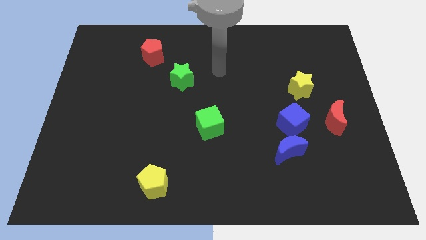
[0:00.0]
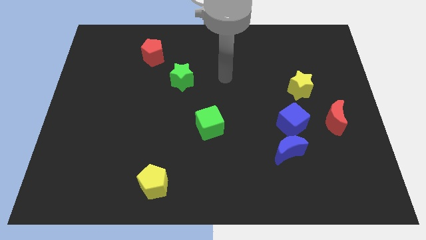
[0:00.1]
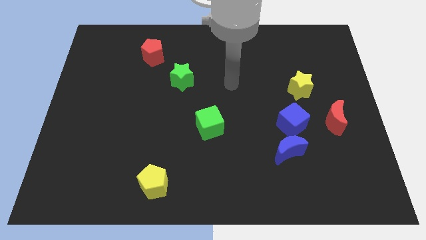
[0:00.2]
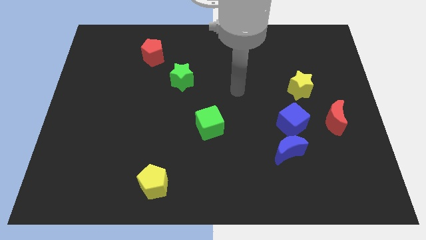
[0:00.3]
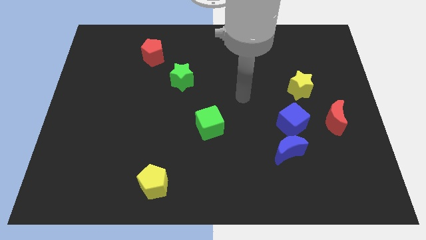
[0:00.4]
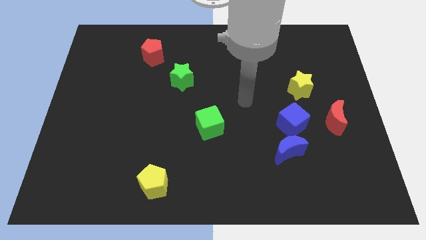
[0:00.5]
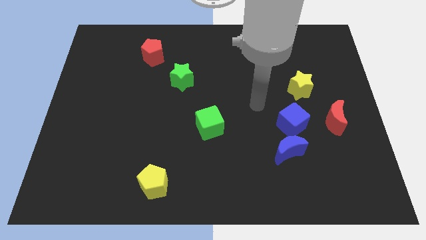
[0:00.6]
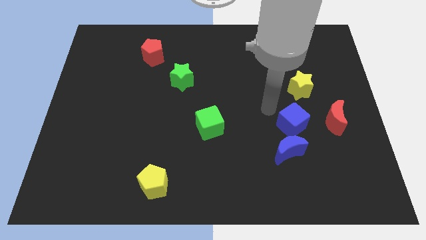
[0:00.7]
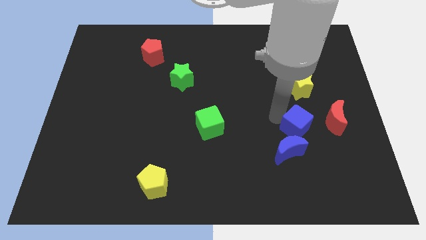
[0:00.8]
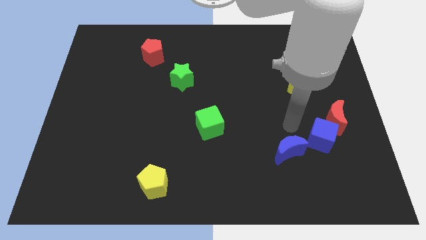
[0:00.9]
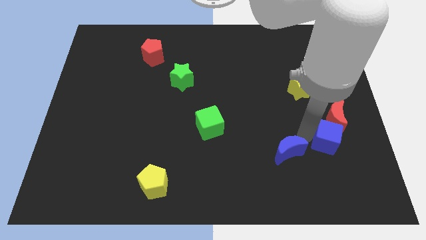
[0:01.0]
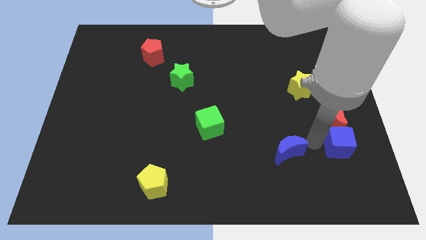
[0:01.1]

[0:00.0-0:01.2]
separate the blue moon from the blue cube

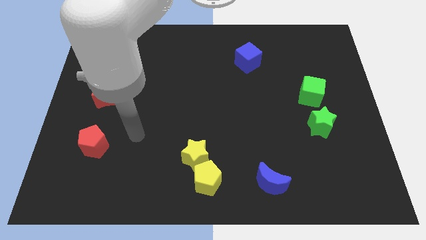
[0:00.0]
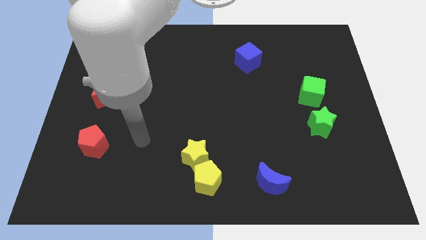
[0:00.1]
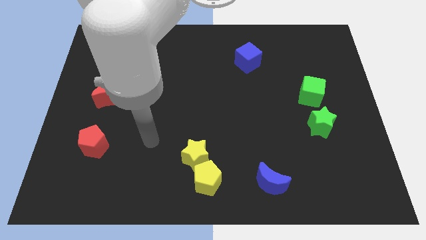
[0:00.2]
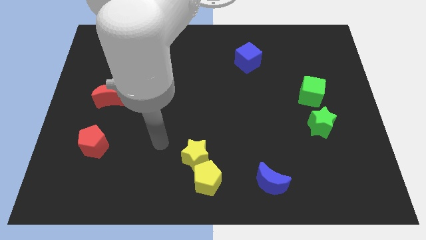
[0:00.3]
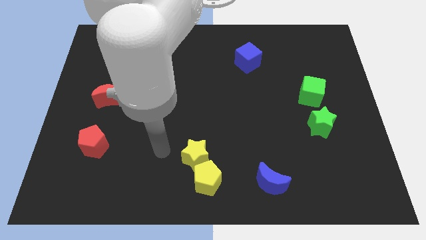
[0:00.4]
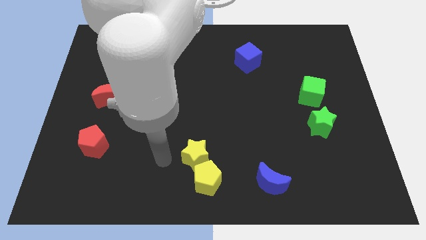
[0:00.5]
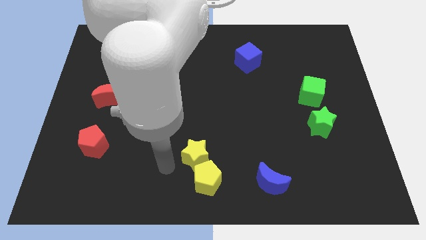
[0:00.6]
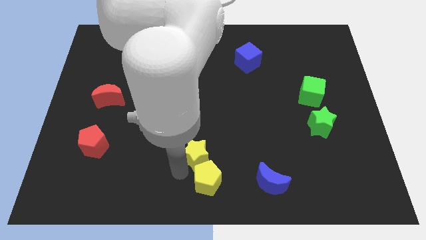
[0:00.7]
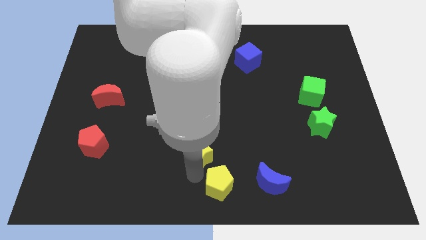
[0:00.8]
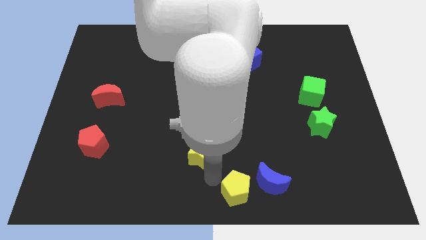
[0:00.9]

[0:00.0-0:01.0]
separate the yellow star from the yellow pentagon

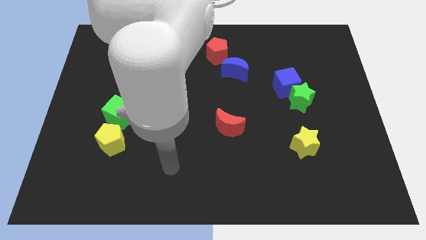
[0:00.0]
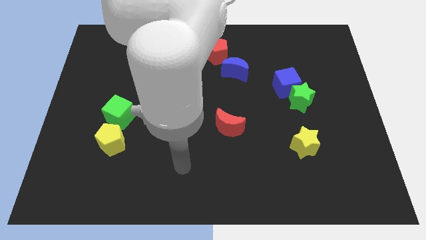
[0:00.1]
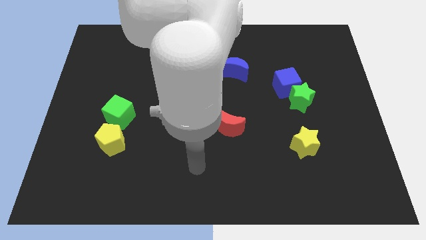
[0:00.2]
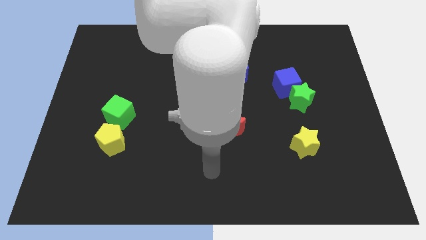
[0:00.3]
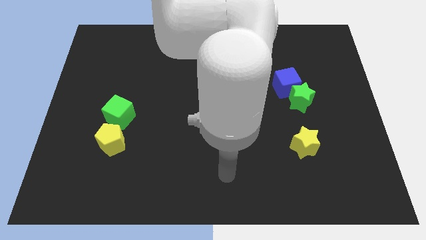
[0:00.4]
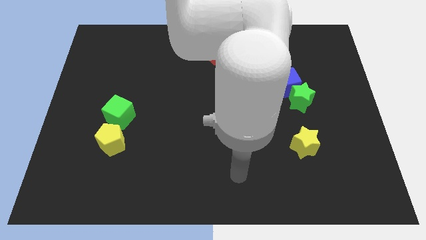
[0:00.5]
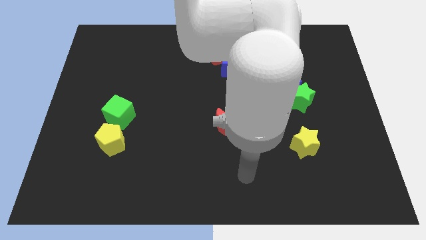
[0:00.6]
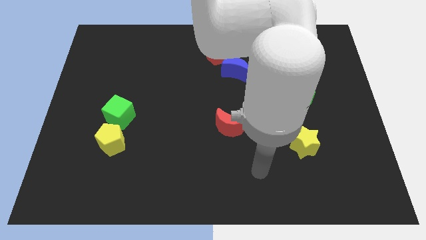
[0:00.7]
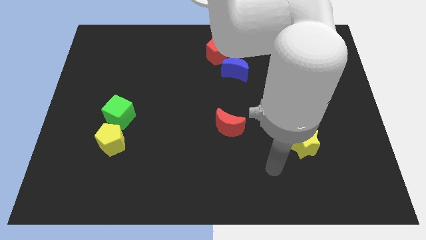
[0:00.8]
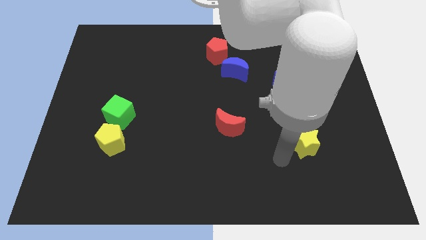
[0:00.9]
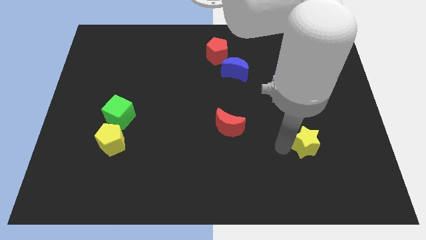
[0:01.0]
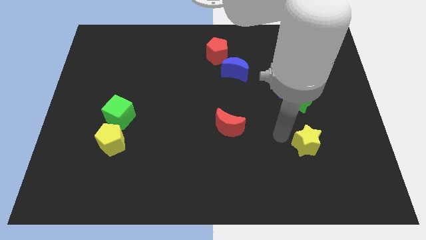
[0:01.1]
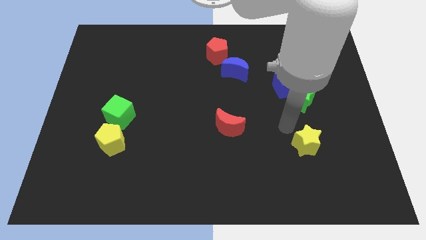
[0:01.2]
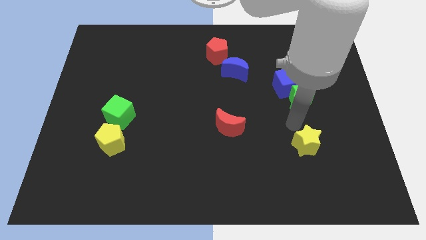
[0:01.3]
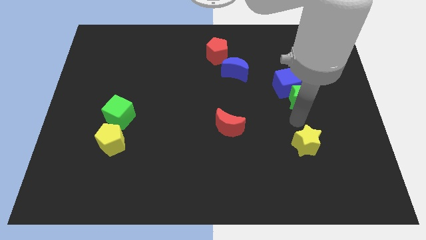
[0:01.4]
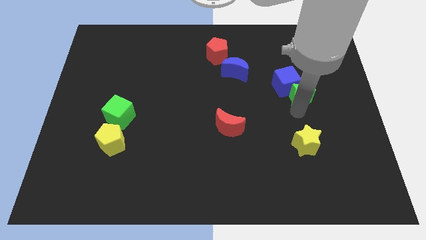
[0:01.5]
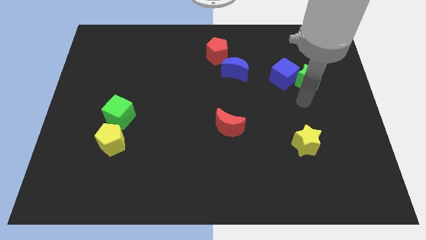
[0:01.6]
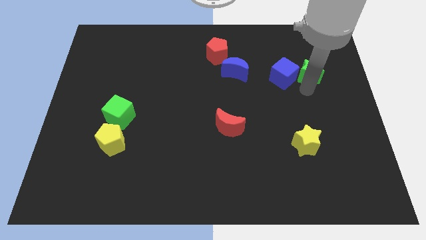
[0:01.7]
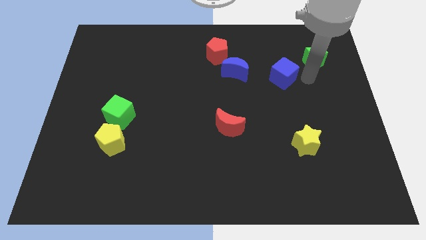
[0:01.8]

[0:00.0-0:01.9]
pull the blue cube apart from the green star

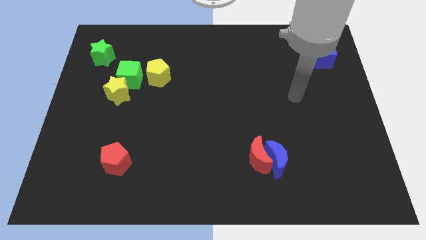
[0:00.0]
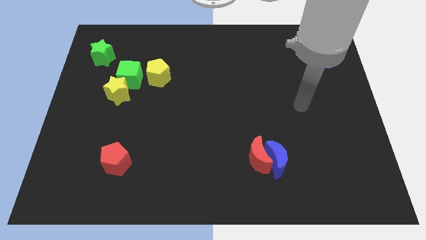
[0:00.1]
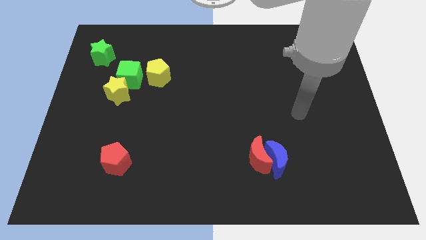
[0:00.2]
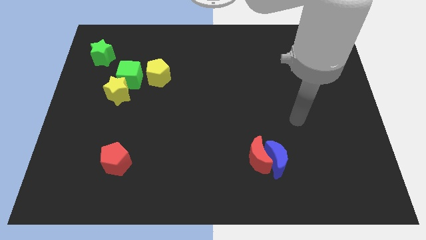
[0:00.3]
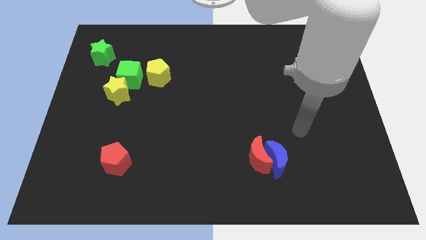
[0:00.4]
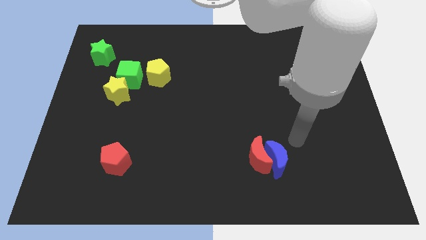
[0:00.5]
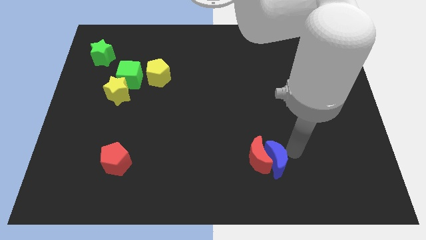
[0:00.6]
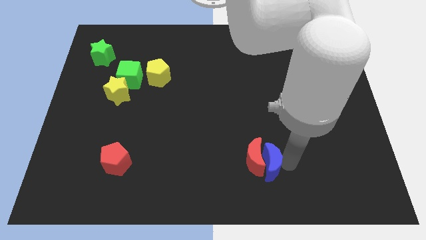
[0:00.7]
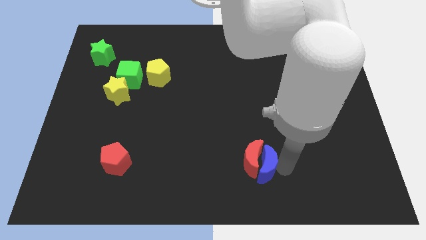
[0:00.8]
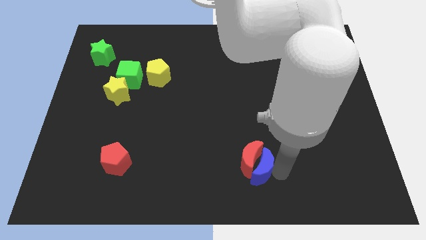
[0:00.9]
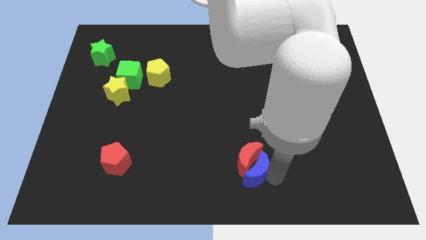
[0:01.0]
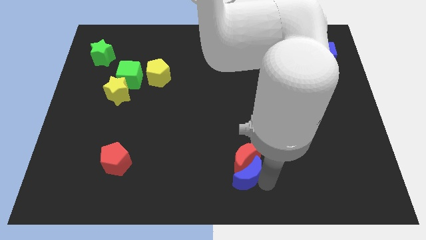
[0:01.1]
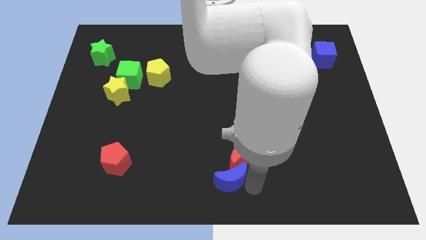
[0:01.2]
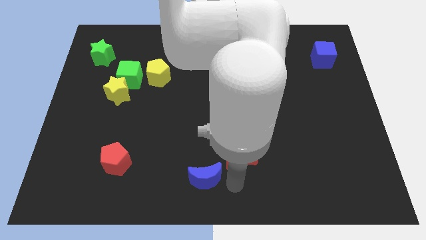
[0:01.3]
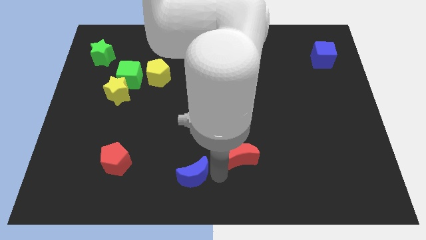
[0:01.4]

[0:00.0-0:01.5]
pull the red moon apart from the blue moon

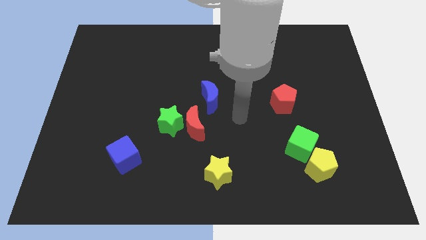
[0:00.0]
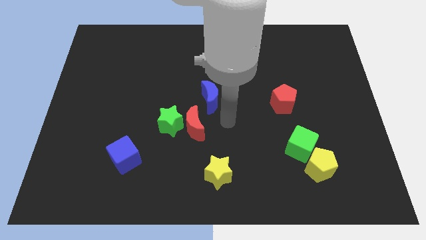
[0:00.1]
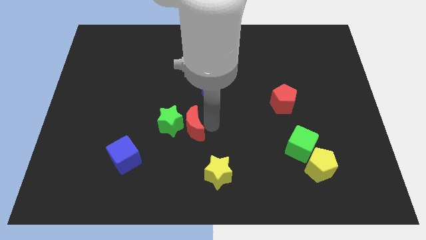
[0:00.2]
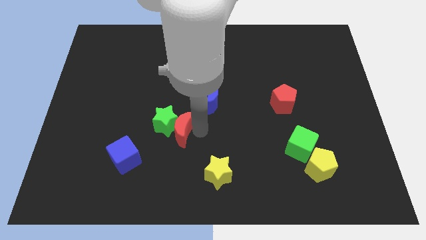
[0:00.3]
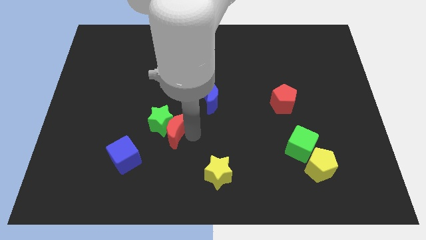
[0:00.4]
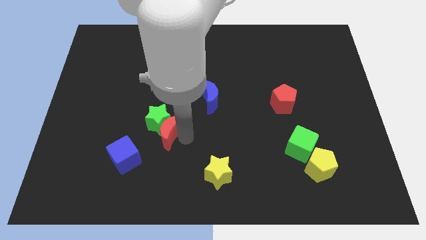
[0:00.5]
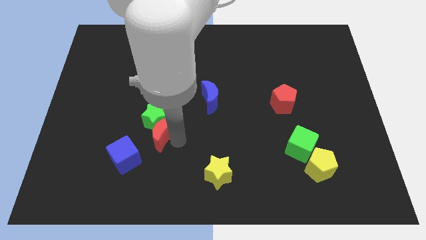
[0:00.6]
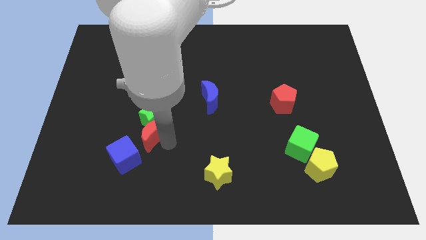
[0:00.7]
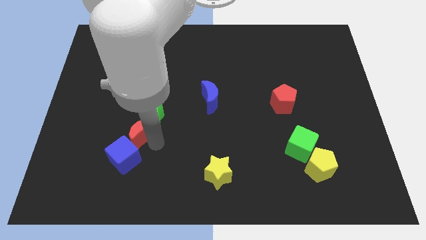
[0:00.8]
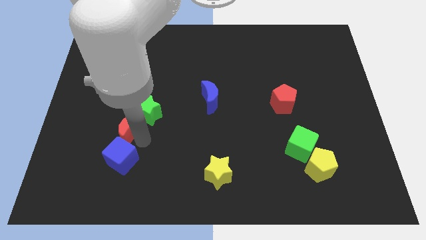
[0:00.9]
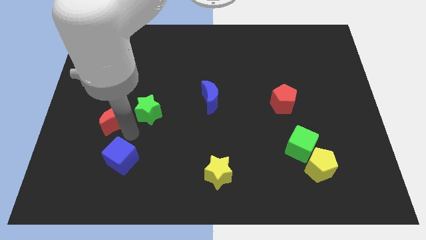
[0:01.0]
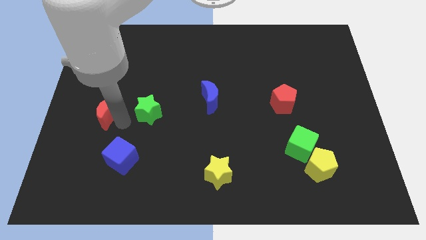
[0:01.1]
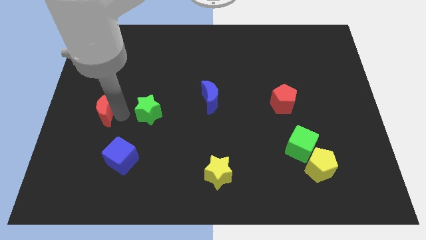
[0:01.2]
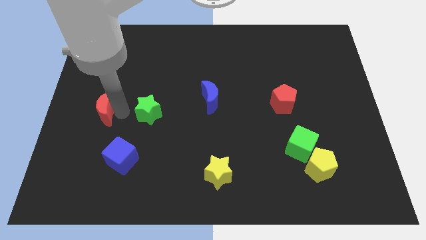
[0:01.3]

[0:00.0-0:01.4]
pull the green star apart from the red moon

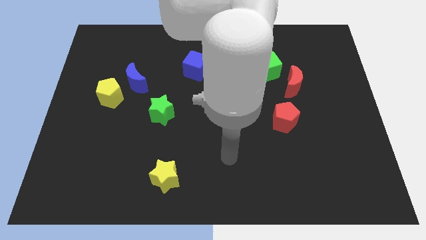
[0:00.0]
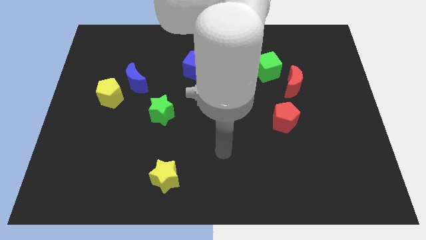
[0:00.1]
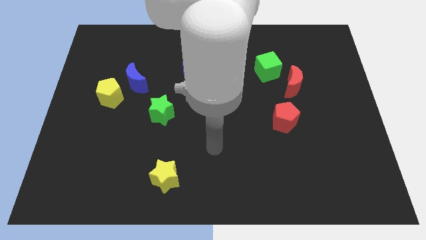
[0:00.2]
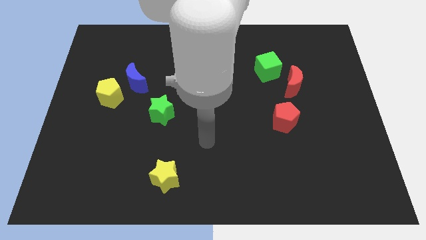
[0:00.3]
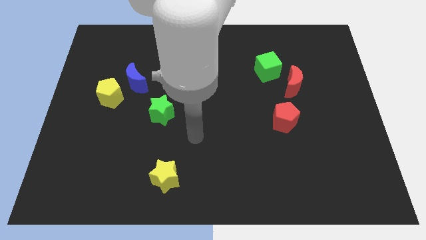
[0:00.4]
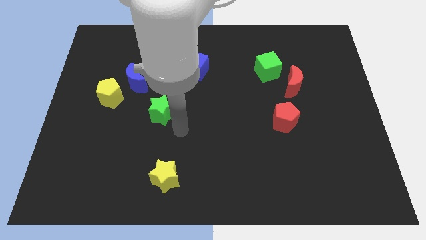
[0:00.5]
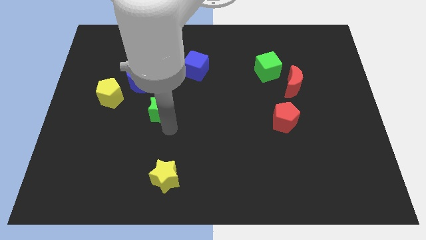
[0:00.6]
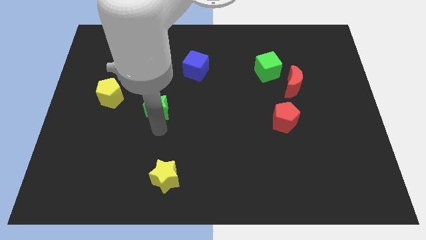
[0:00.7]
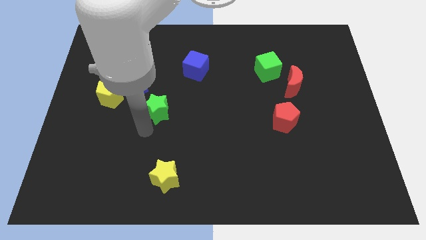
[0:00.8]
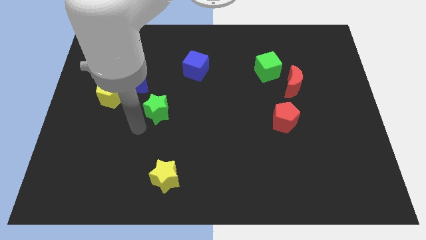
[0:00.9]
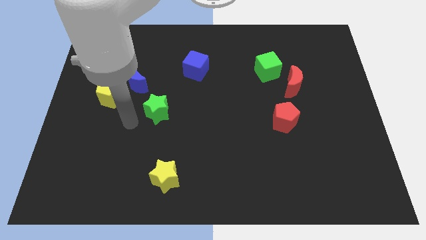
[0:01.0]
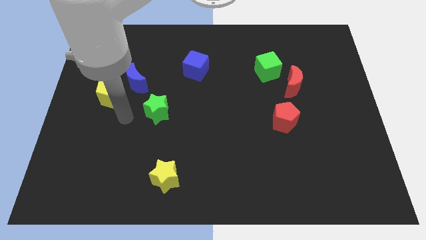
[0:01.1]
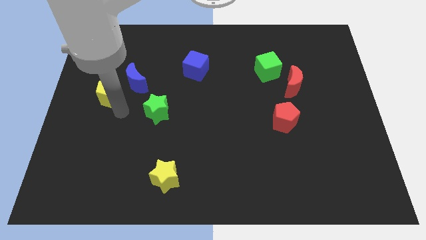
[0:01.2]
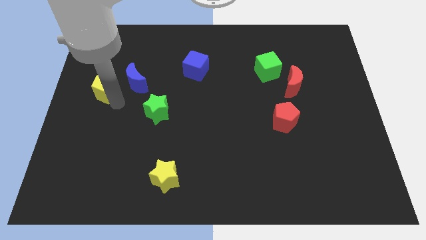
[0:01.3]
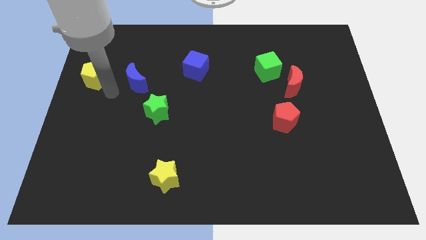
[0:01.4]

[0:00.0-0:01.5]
move the blue moon away from the yellow pentagon

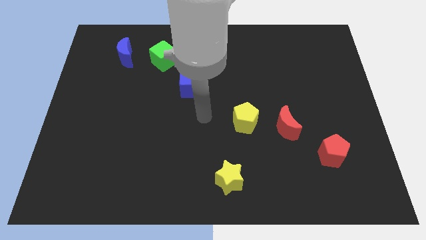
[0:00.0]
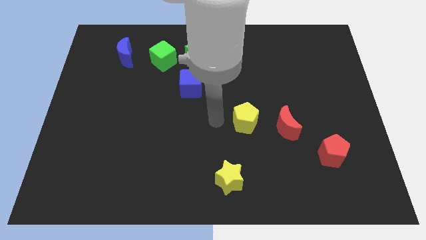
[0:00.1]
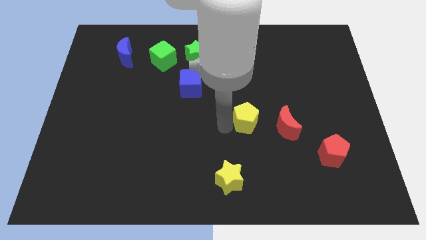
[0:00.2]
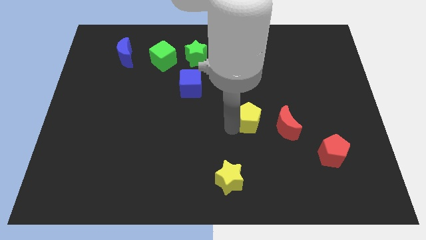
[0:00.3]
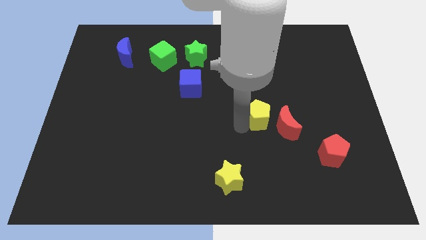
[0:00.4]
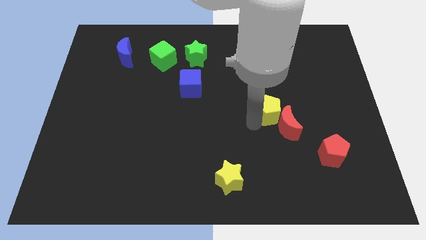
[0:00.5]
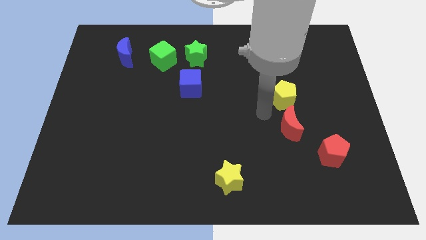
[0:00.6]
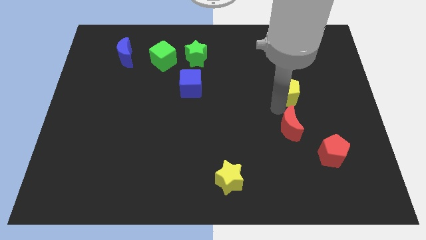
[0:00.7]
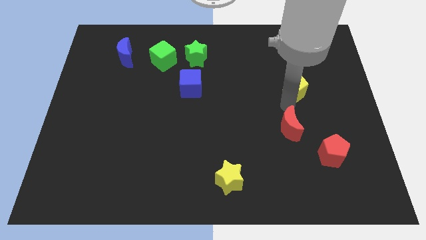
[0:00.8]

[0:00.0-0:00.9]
move the red moon away from the yellow pentagon
